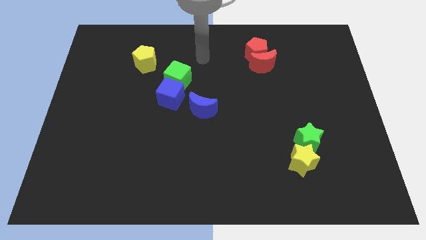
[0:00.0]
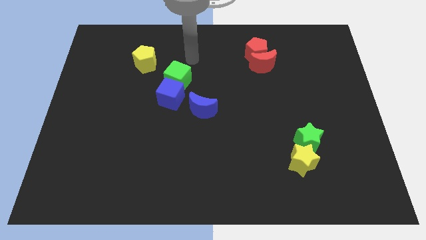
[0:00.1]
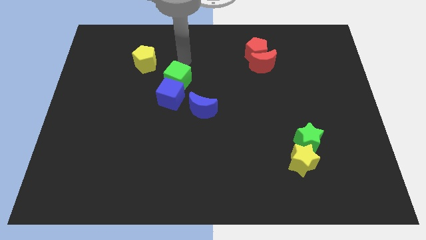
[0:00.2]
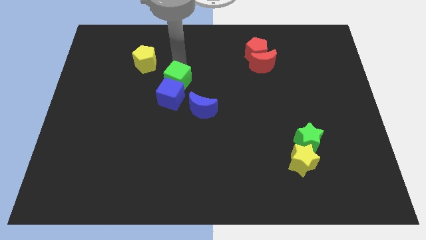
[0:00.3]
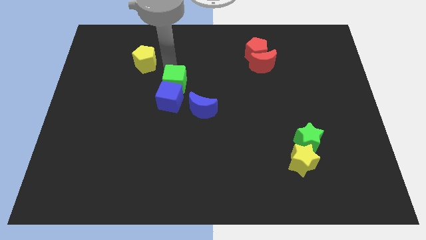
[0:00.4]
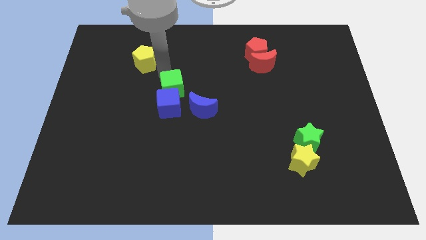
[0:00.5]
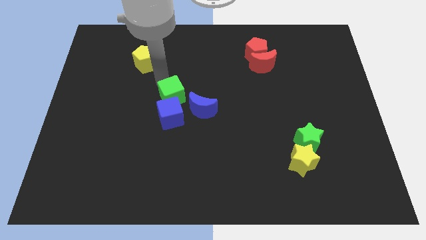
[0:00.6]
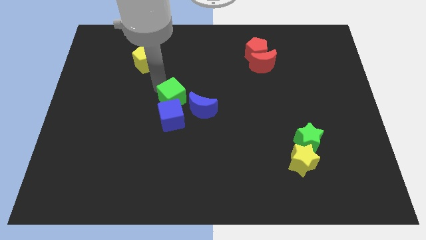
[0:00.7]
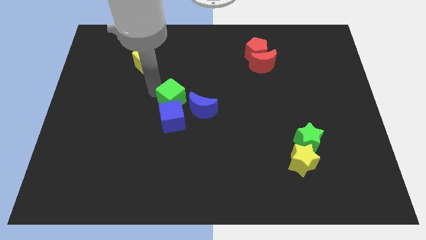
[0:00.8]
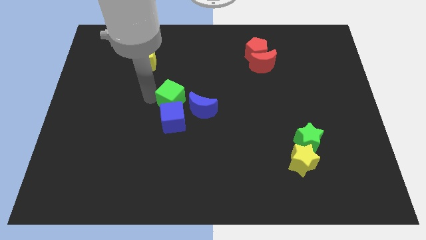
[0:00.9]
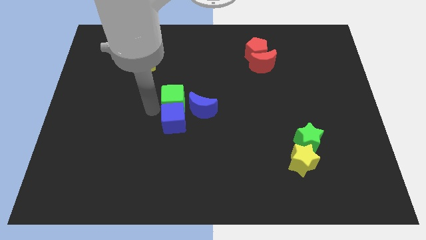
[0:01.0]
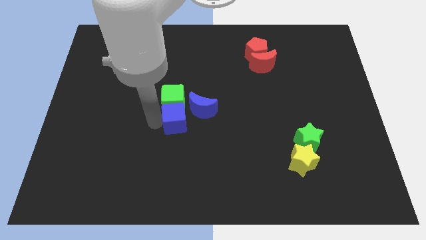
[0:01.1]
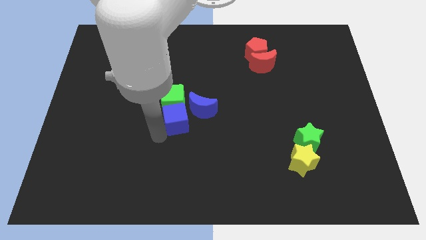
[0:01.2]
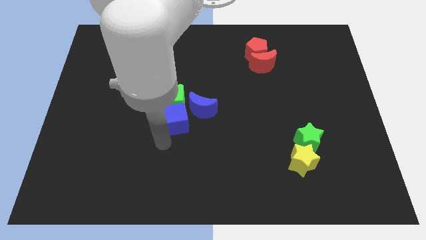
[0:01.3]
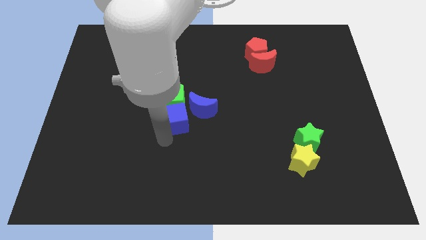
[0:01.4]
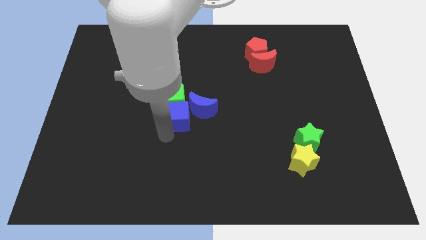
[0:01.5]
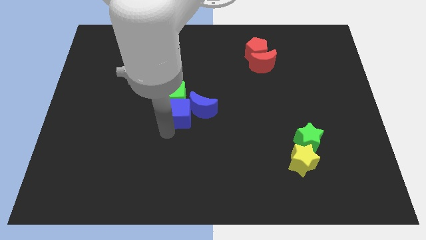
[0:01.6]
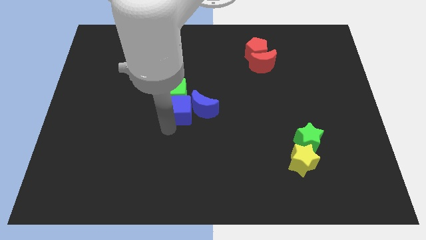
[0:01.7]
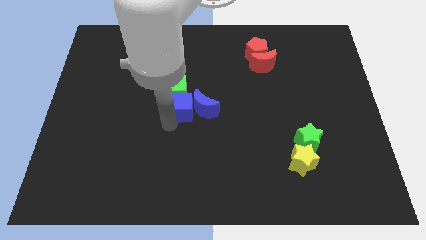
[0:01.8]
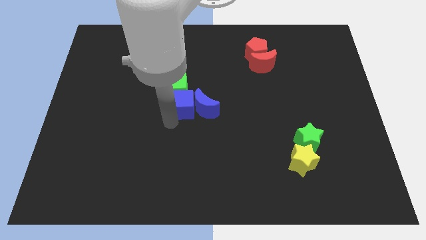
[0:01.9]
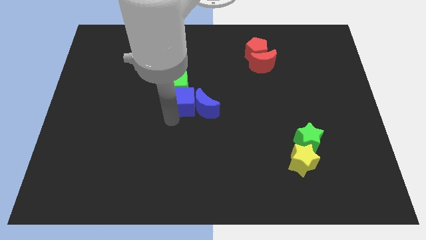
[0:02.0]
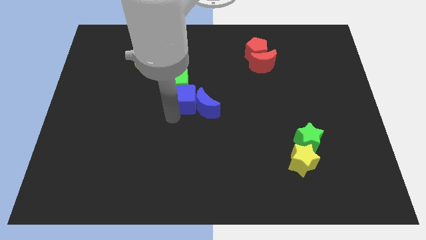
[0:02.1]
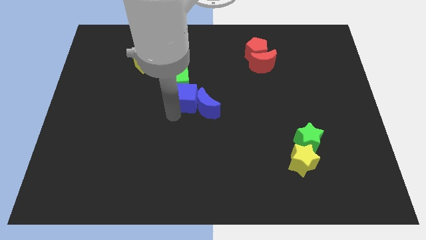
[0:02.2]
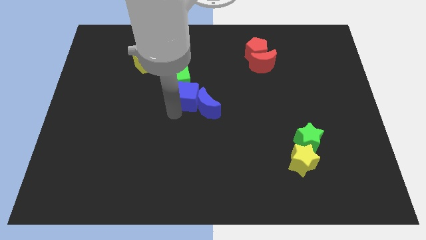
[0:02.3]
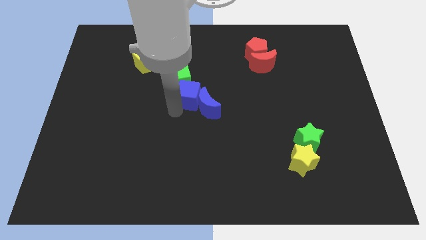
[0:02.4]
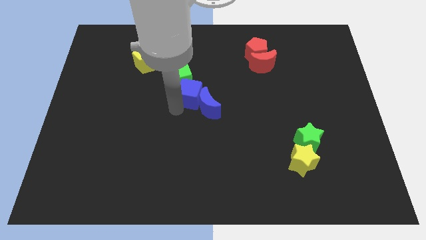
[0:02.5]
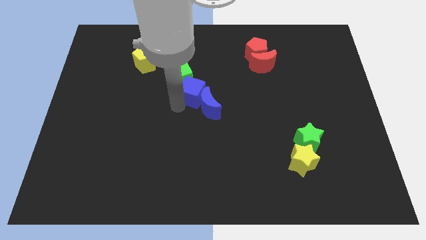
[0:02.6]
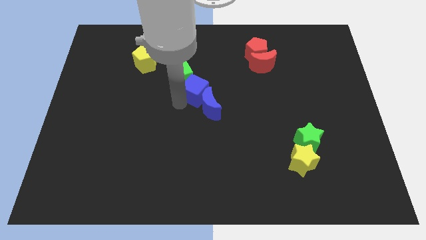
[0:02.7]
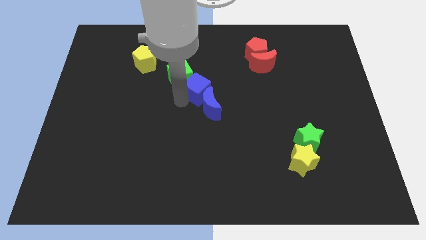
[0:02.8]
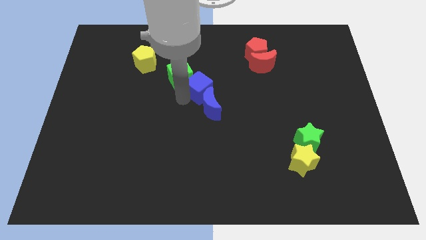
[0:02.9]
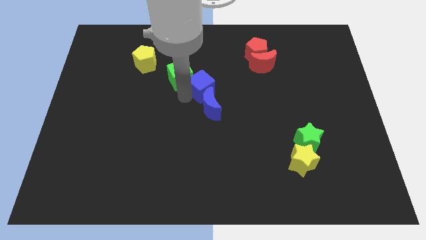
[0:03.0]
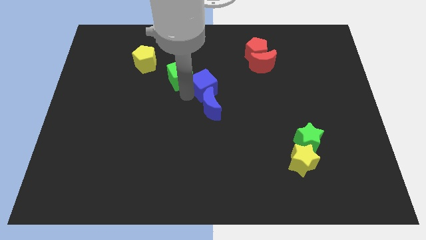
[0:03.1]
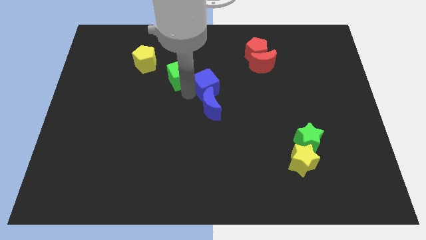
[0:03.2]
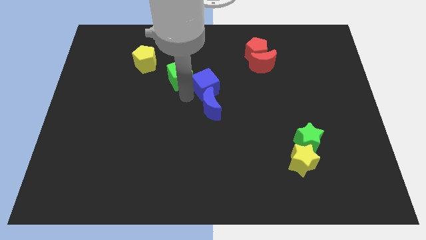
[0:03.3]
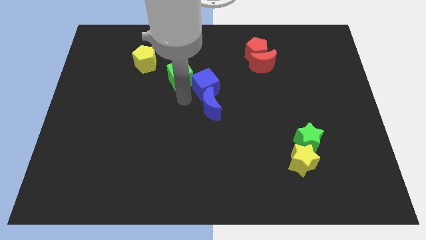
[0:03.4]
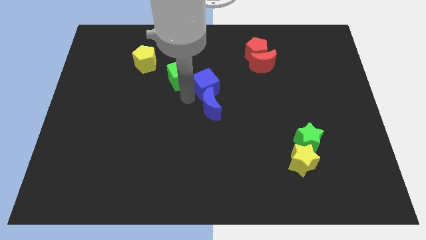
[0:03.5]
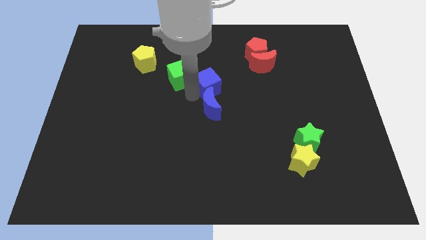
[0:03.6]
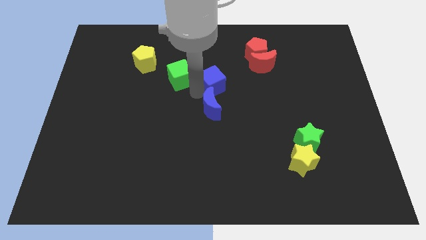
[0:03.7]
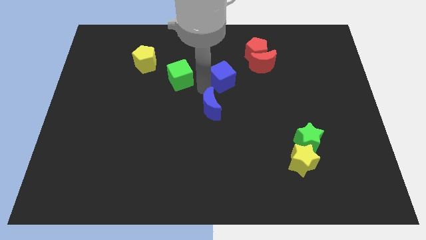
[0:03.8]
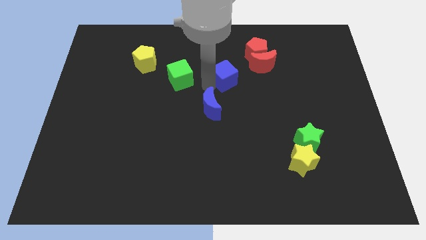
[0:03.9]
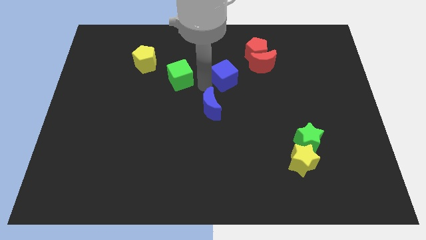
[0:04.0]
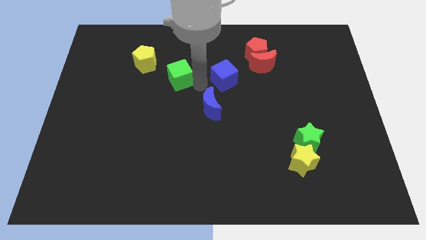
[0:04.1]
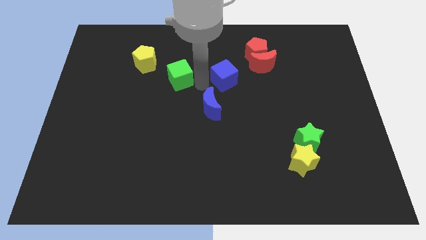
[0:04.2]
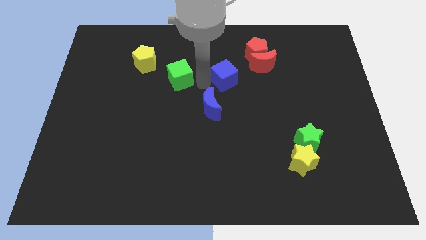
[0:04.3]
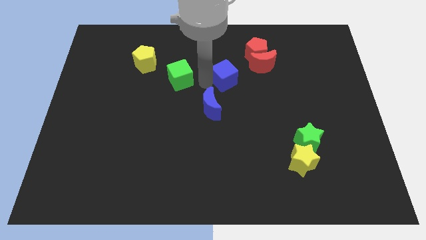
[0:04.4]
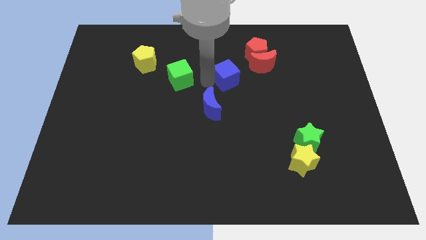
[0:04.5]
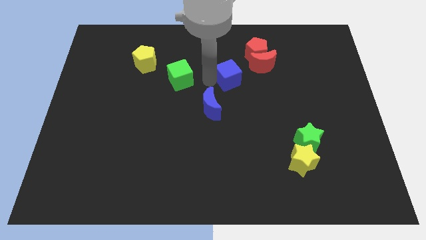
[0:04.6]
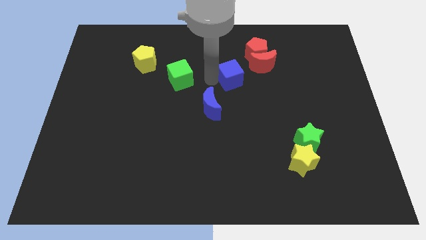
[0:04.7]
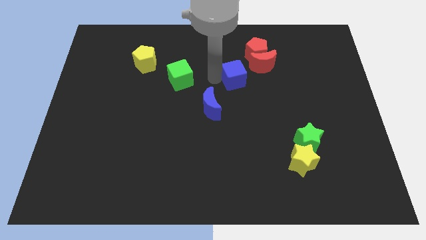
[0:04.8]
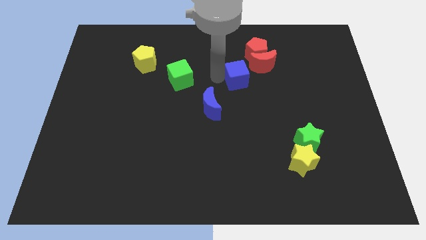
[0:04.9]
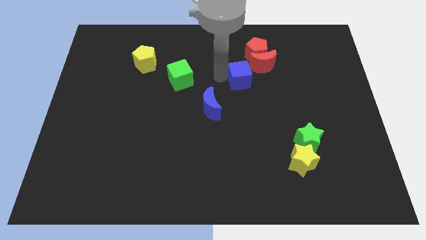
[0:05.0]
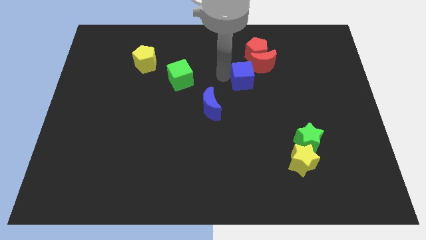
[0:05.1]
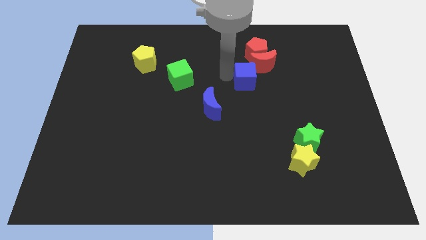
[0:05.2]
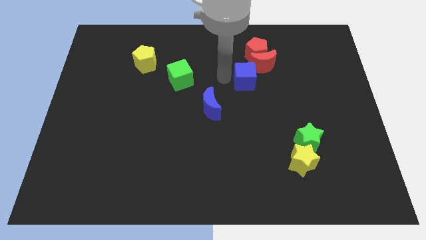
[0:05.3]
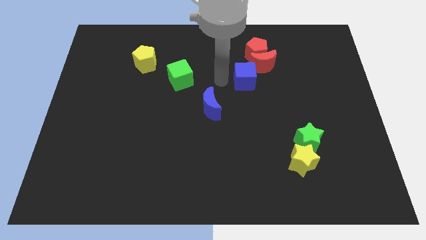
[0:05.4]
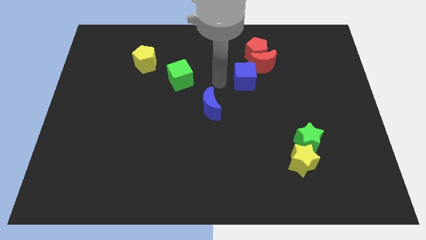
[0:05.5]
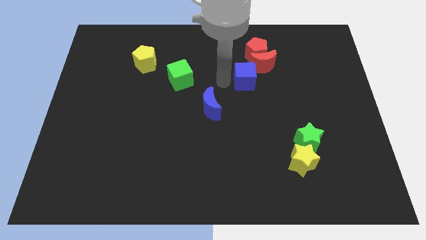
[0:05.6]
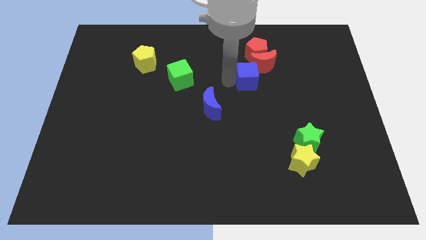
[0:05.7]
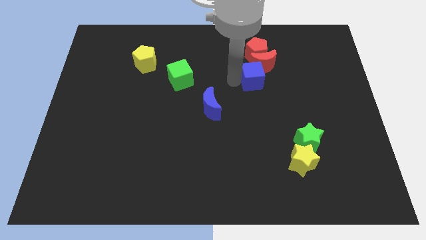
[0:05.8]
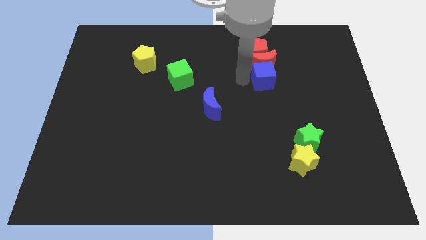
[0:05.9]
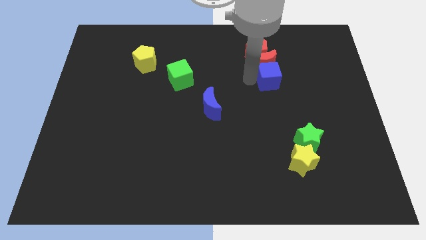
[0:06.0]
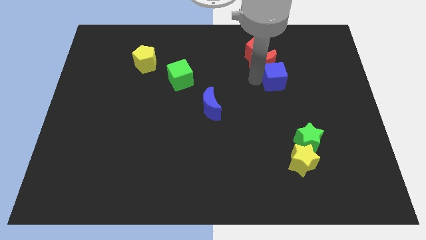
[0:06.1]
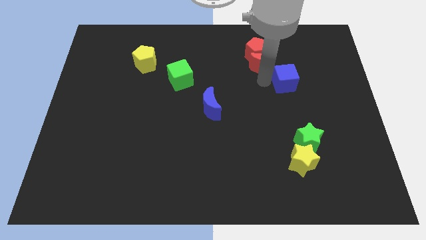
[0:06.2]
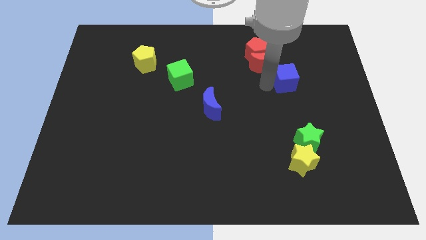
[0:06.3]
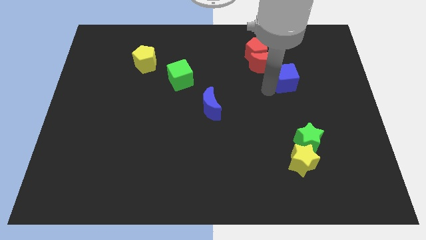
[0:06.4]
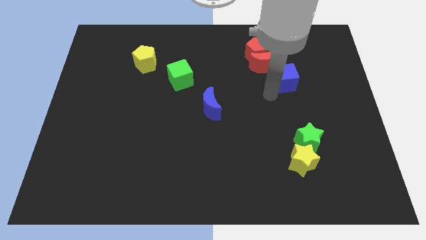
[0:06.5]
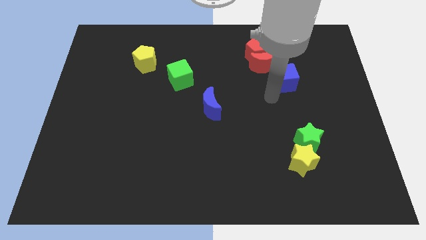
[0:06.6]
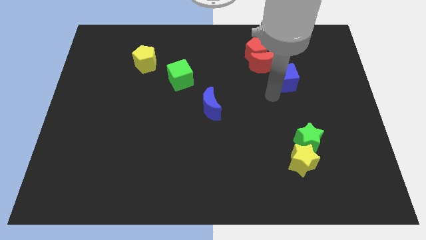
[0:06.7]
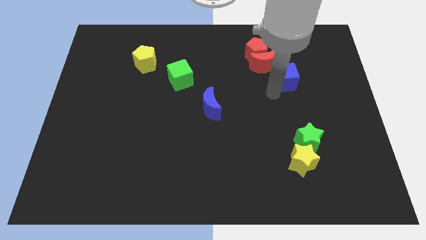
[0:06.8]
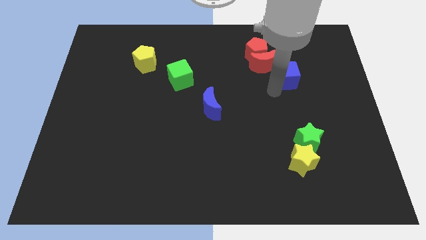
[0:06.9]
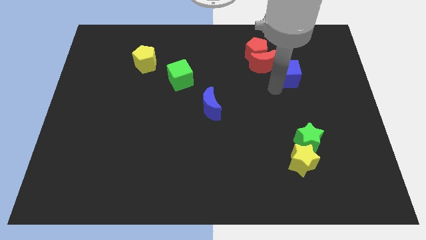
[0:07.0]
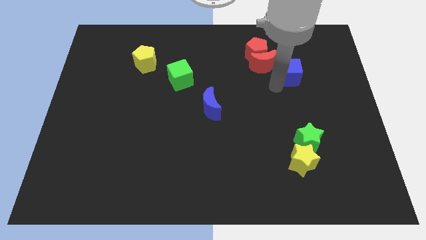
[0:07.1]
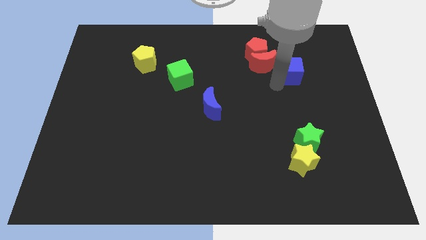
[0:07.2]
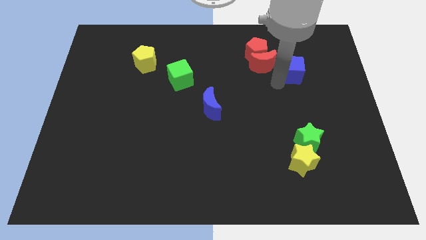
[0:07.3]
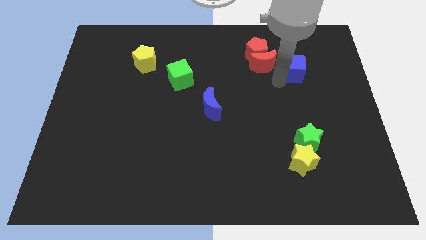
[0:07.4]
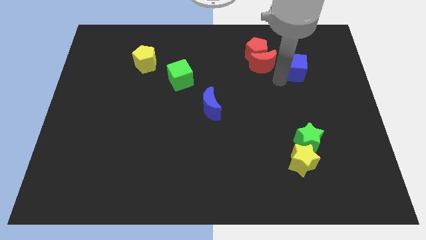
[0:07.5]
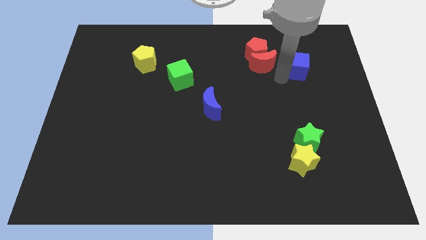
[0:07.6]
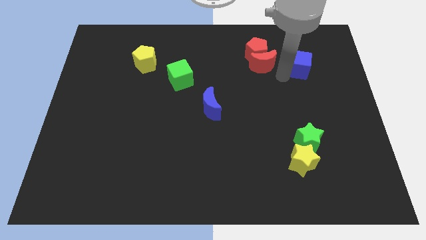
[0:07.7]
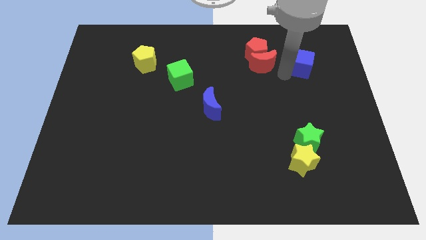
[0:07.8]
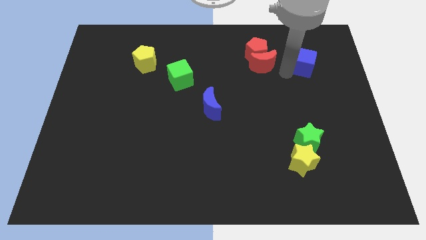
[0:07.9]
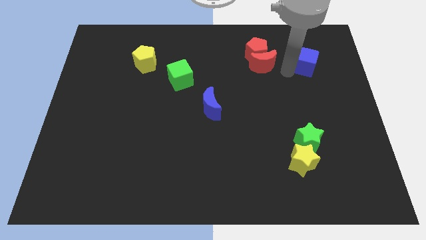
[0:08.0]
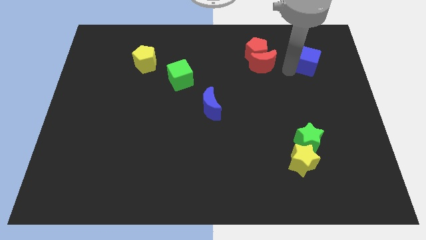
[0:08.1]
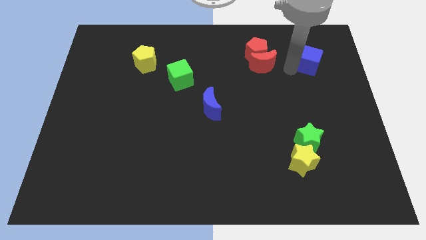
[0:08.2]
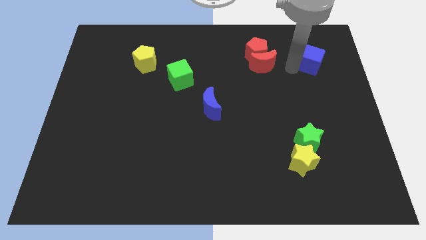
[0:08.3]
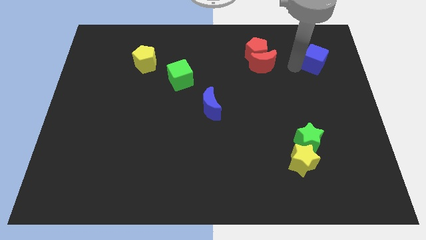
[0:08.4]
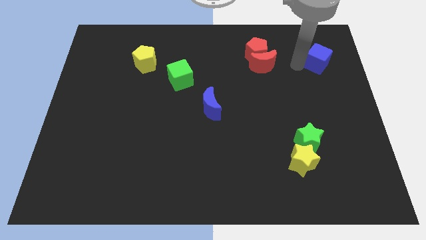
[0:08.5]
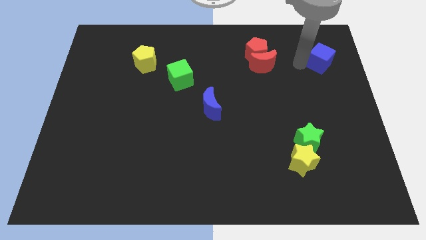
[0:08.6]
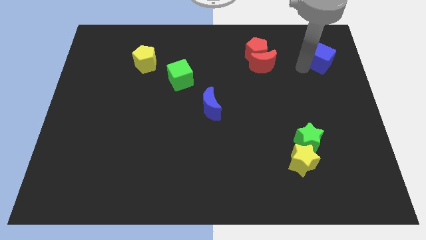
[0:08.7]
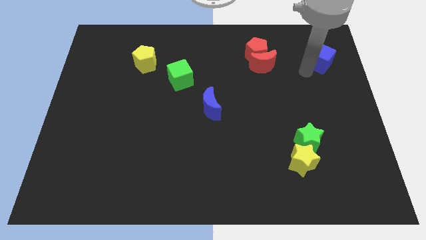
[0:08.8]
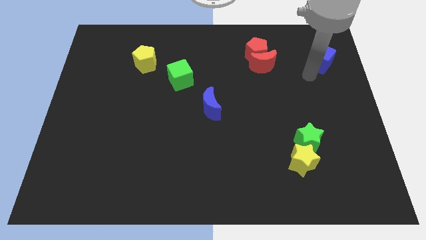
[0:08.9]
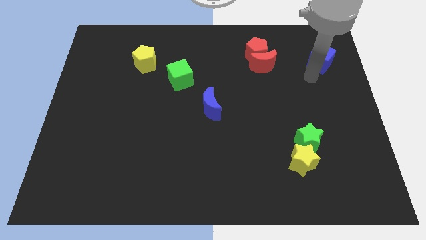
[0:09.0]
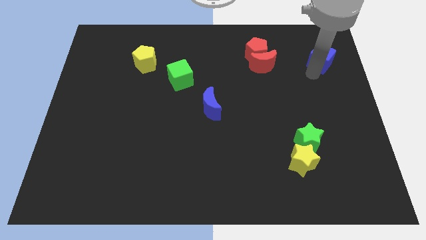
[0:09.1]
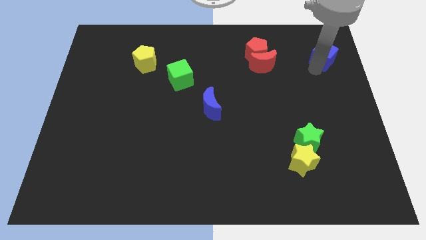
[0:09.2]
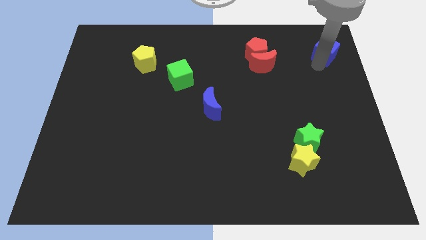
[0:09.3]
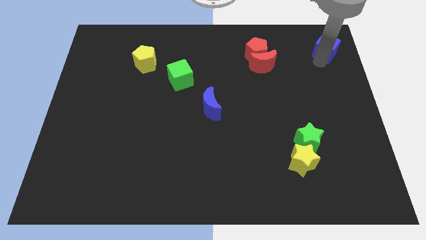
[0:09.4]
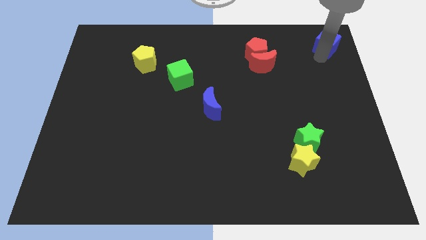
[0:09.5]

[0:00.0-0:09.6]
slide the blue cube to the top right corner
